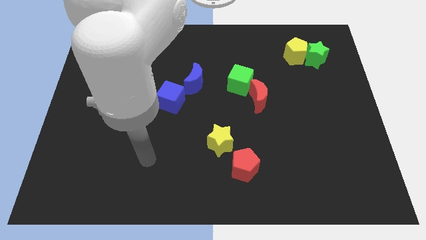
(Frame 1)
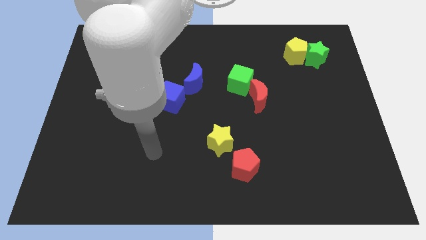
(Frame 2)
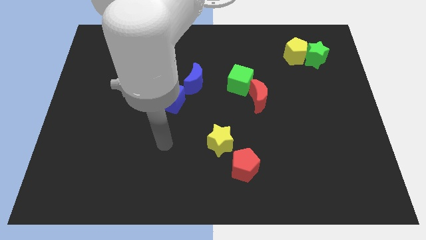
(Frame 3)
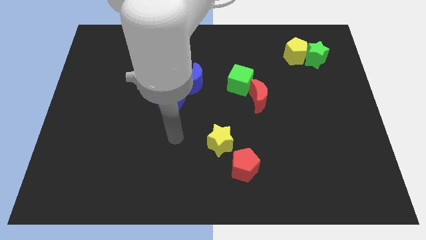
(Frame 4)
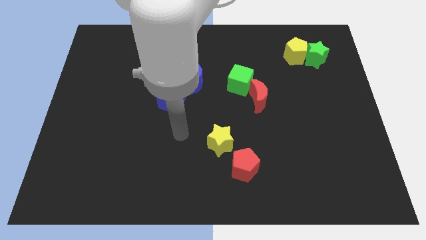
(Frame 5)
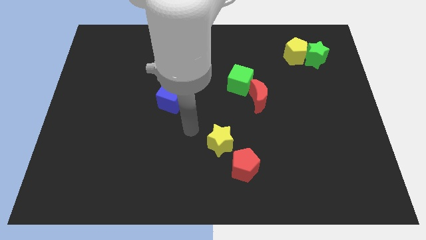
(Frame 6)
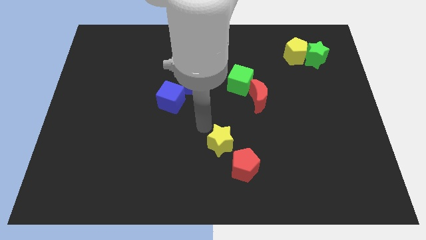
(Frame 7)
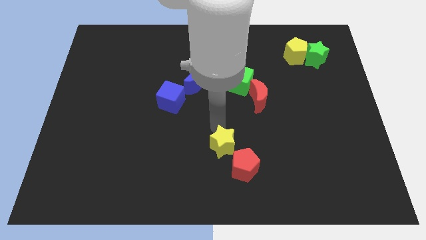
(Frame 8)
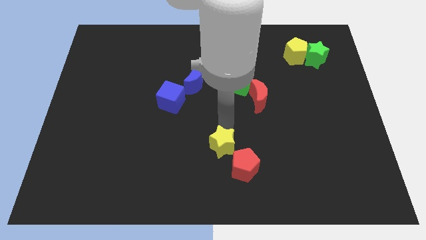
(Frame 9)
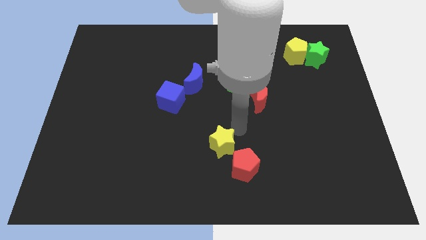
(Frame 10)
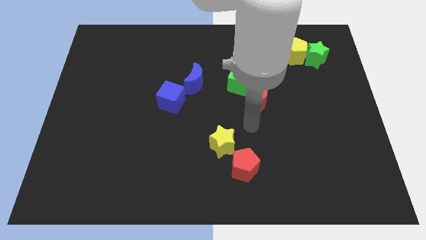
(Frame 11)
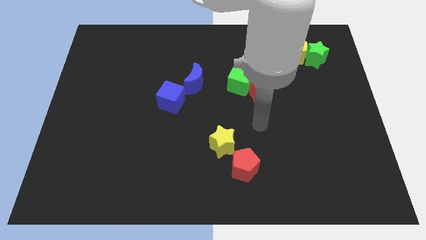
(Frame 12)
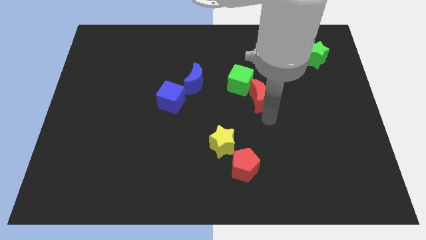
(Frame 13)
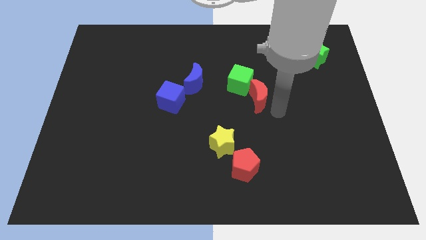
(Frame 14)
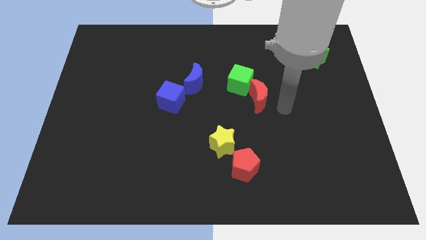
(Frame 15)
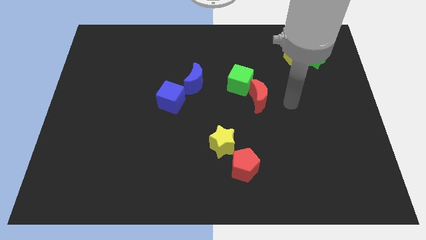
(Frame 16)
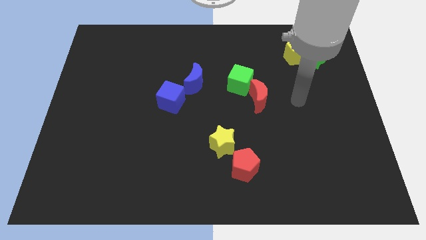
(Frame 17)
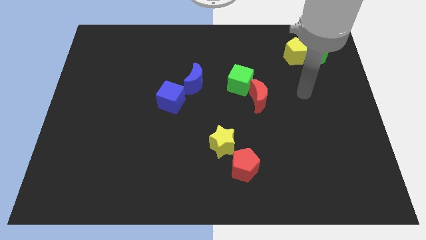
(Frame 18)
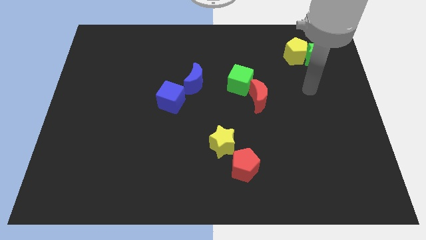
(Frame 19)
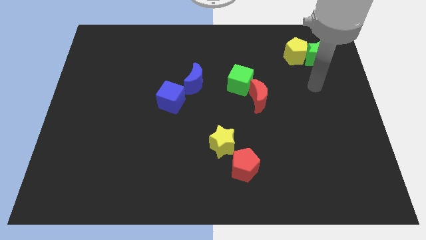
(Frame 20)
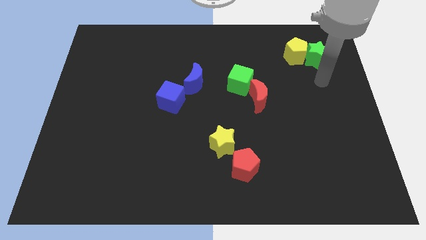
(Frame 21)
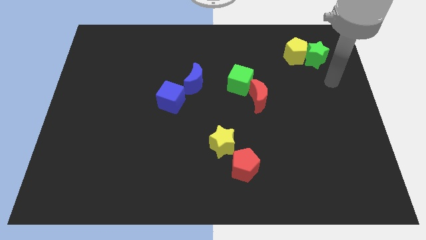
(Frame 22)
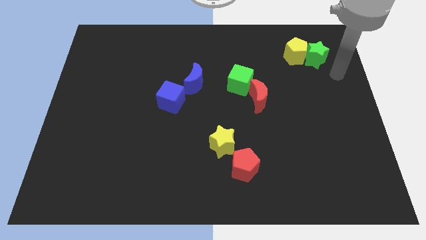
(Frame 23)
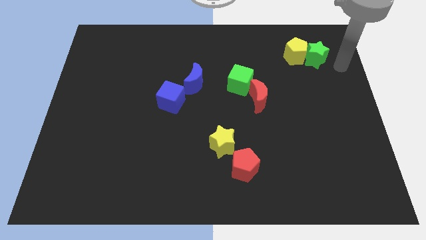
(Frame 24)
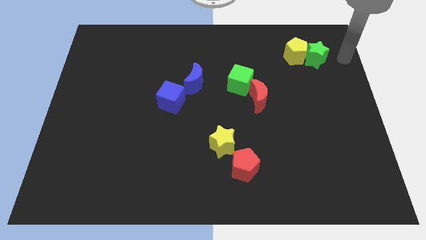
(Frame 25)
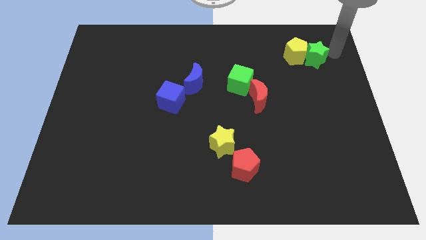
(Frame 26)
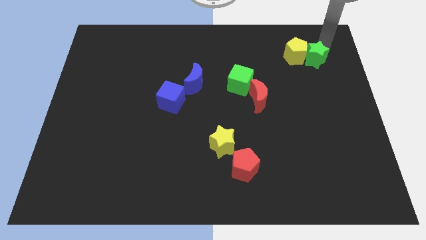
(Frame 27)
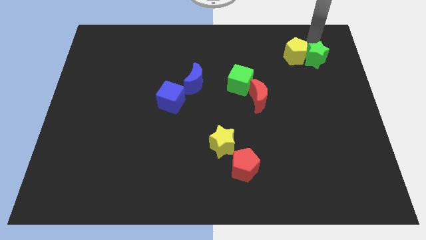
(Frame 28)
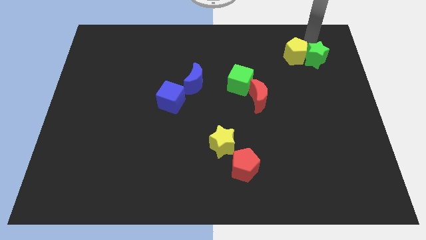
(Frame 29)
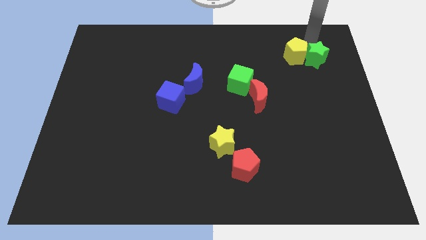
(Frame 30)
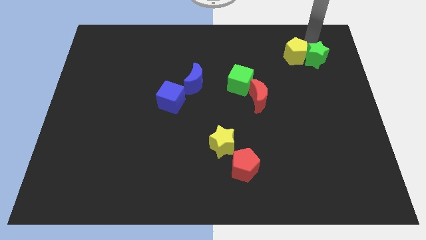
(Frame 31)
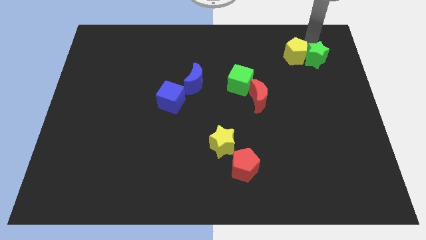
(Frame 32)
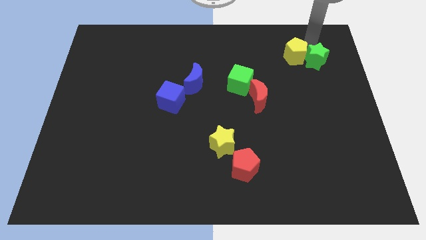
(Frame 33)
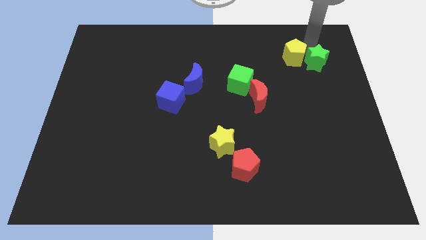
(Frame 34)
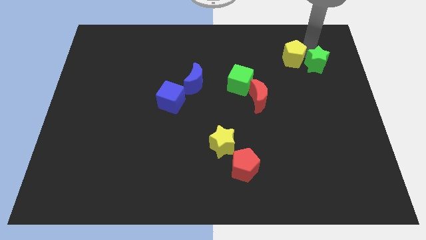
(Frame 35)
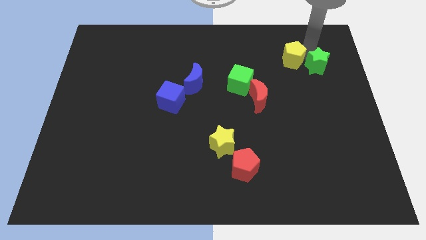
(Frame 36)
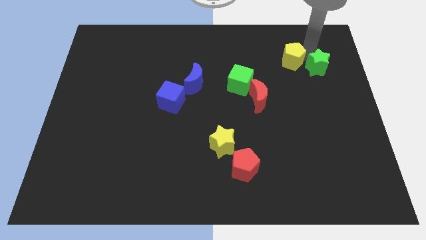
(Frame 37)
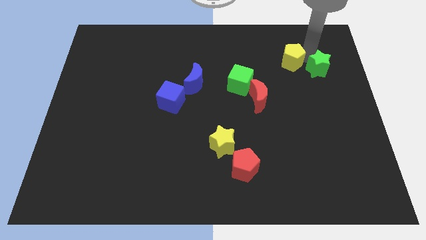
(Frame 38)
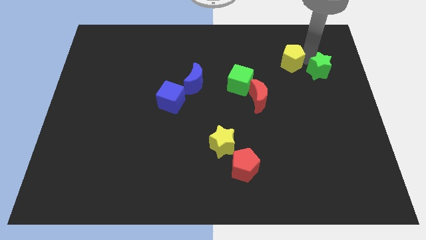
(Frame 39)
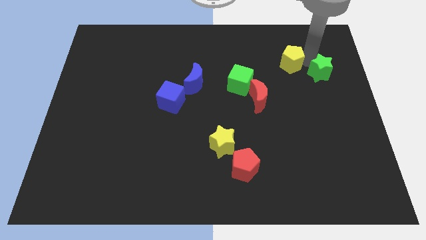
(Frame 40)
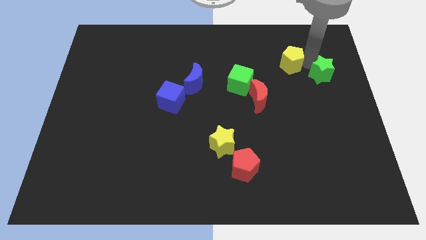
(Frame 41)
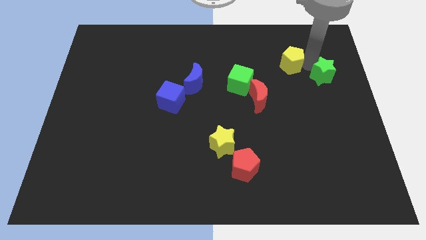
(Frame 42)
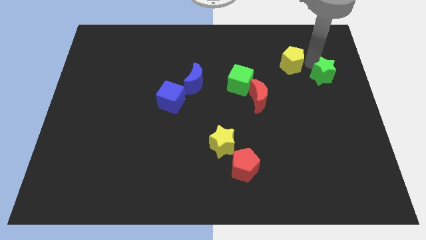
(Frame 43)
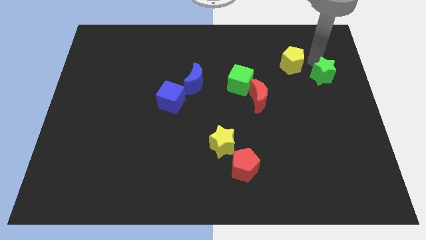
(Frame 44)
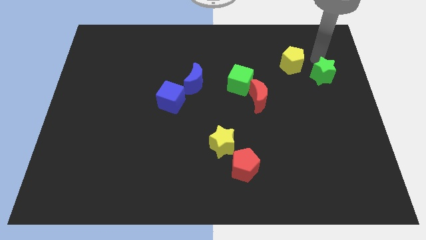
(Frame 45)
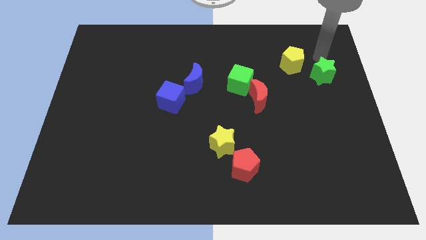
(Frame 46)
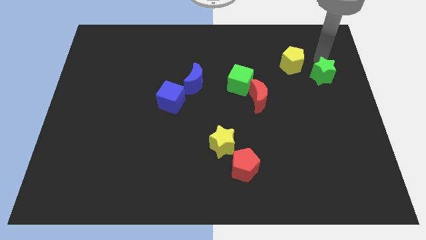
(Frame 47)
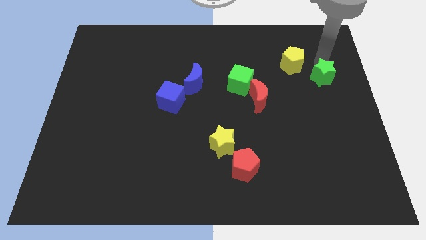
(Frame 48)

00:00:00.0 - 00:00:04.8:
slide the green star down a little bit

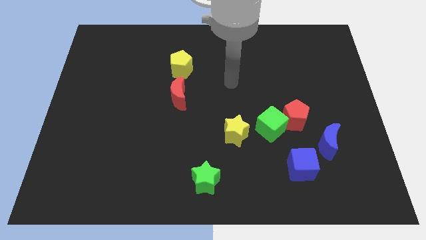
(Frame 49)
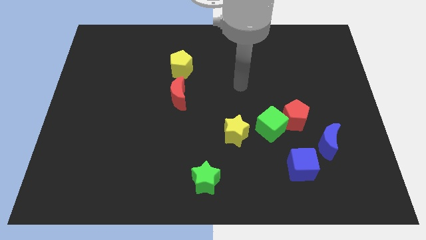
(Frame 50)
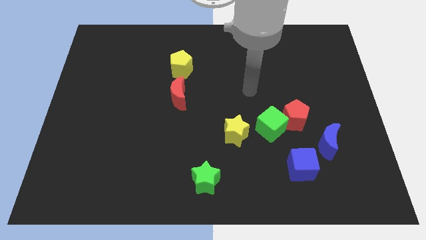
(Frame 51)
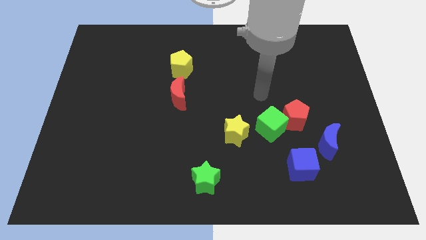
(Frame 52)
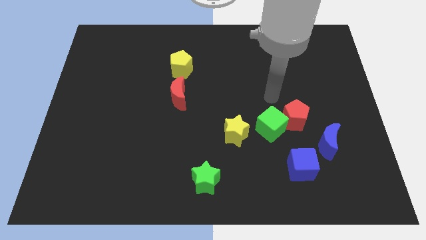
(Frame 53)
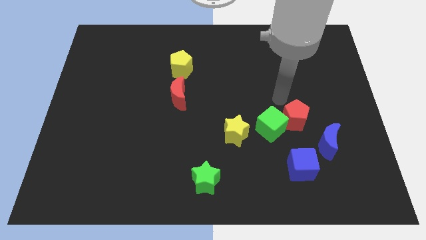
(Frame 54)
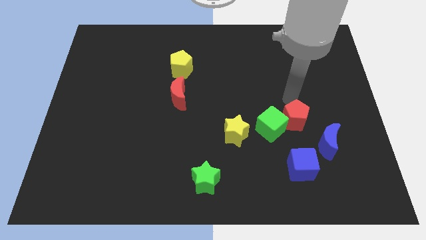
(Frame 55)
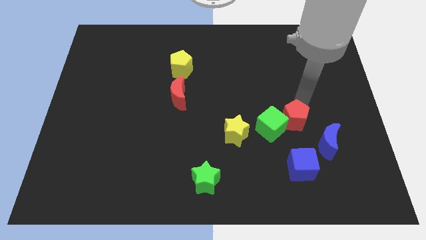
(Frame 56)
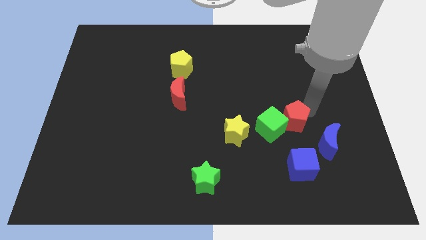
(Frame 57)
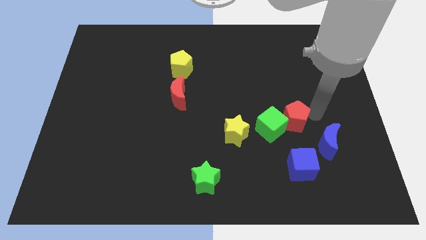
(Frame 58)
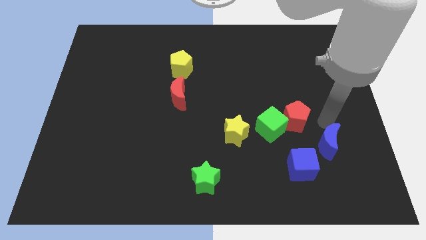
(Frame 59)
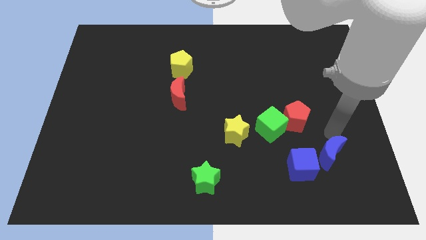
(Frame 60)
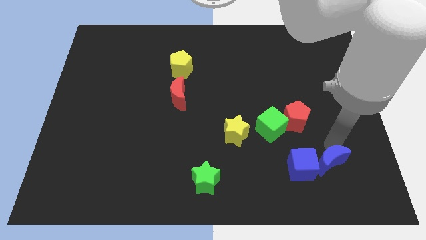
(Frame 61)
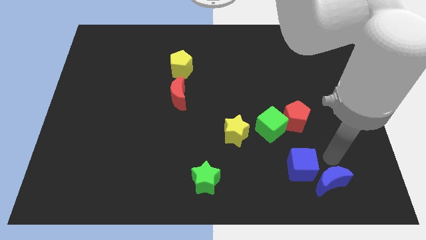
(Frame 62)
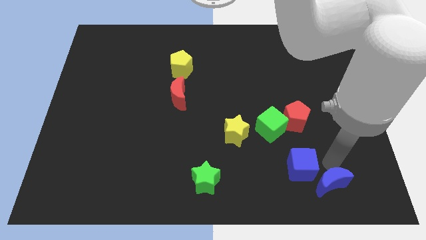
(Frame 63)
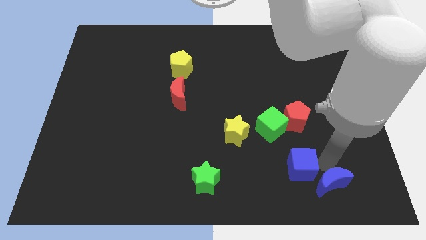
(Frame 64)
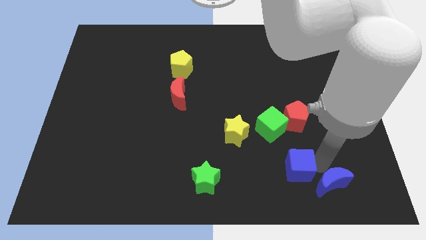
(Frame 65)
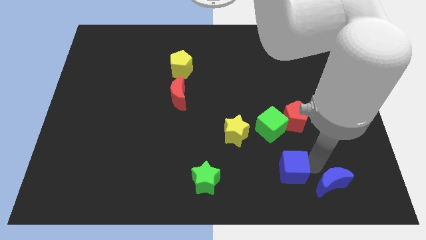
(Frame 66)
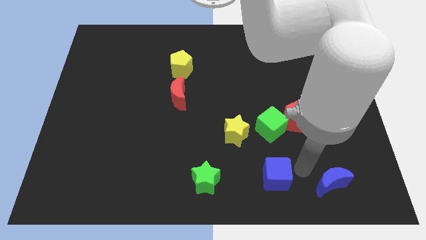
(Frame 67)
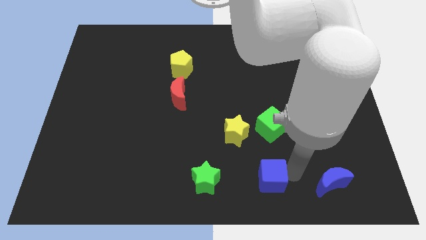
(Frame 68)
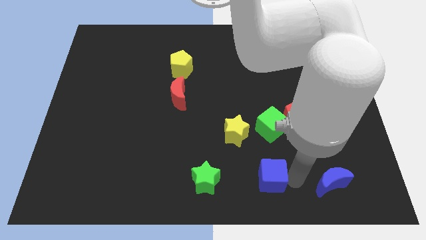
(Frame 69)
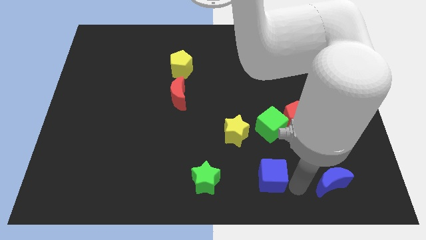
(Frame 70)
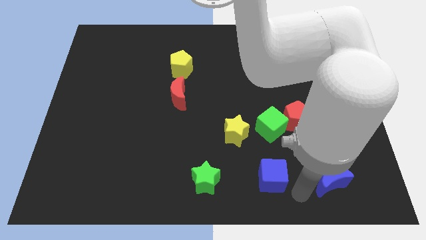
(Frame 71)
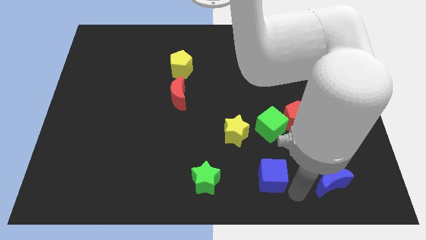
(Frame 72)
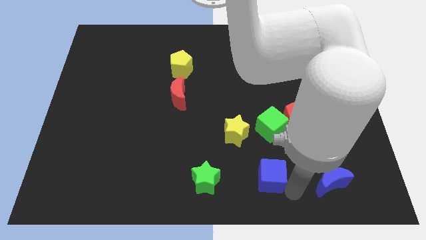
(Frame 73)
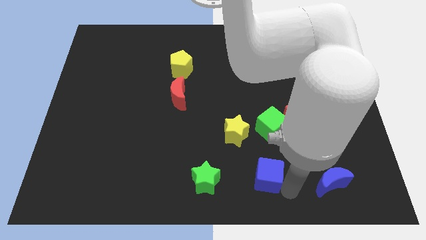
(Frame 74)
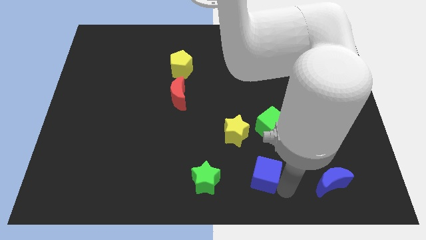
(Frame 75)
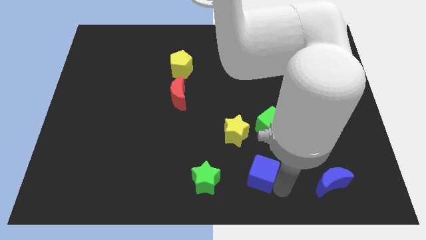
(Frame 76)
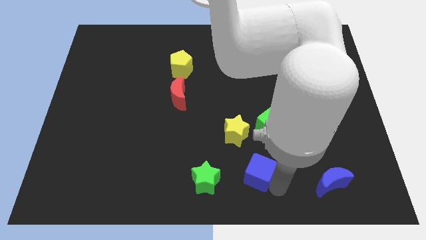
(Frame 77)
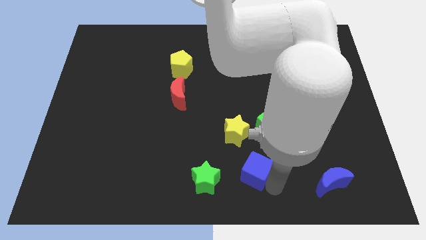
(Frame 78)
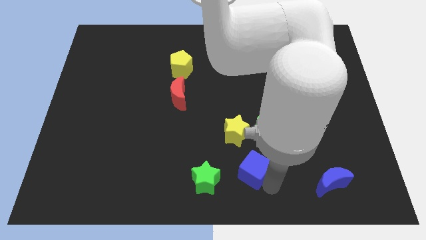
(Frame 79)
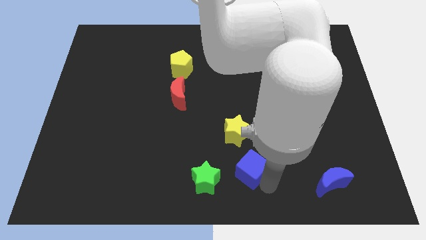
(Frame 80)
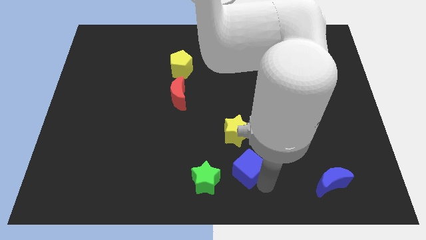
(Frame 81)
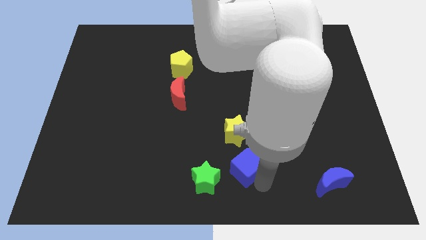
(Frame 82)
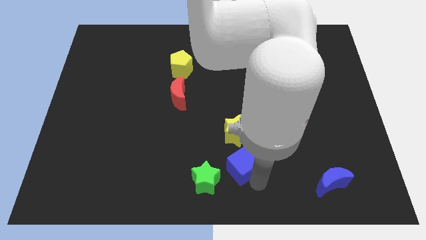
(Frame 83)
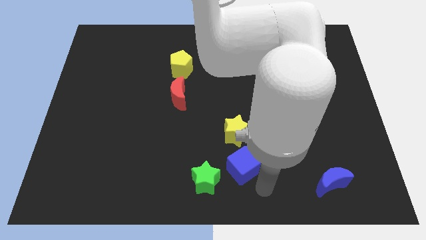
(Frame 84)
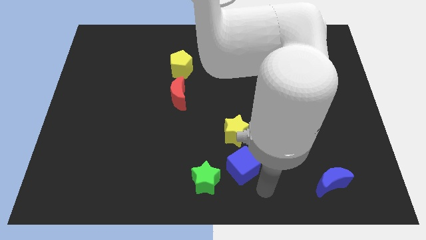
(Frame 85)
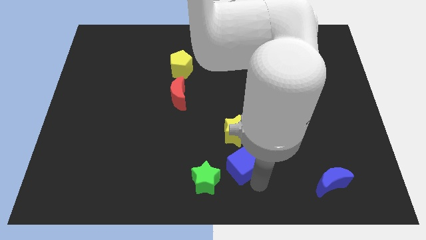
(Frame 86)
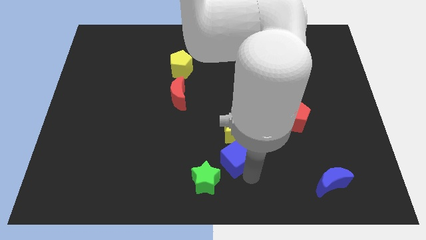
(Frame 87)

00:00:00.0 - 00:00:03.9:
move the blue cube a little bit diagonally upwards and to the left
